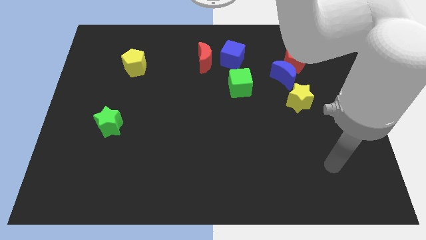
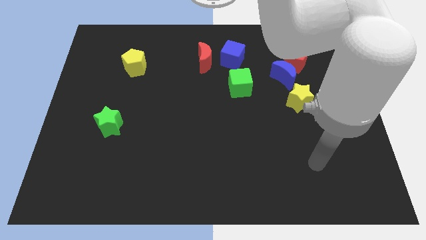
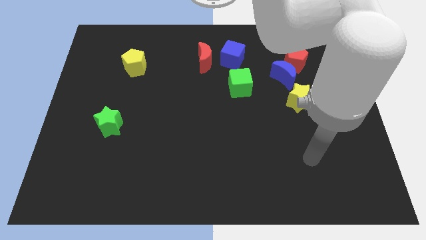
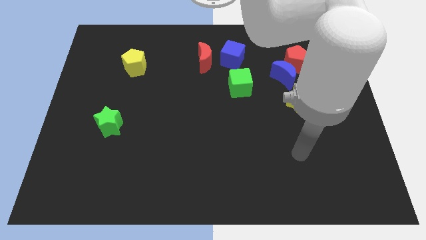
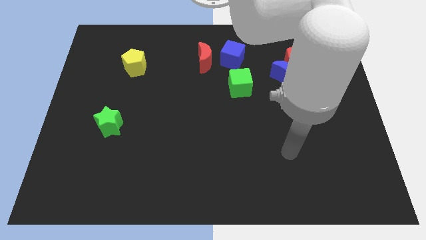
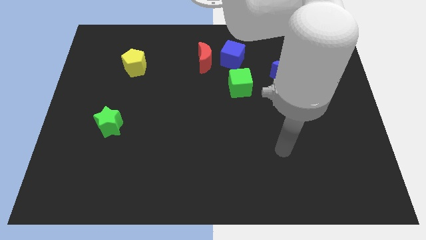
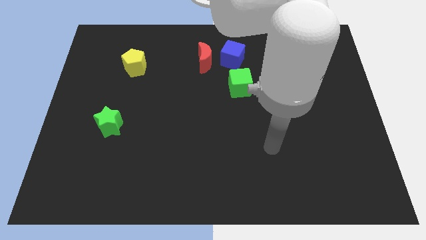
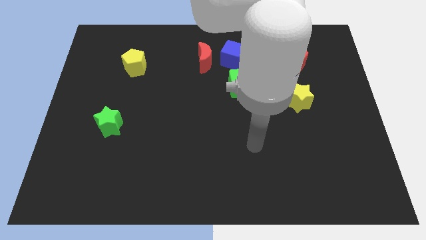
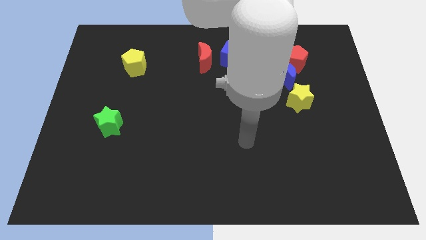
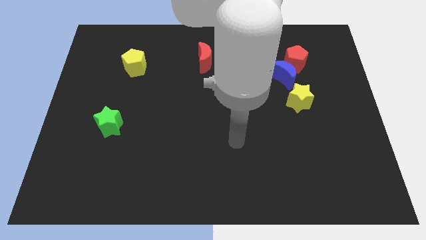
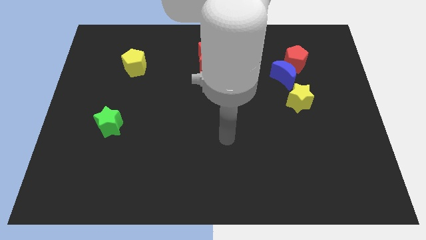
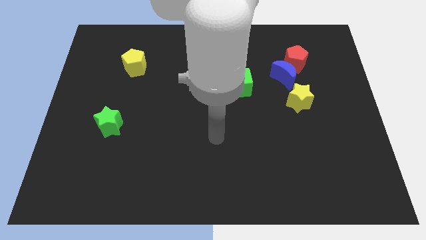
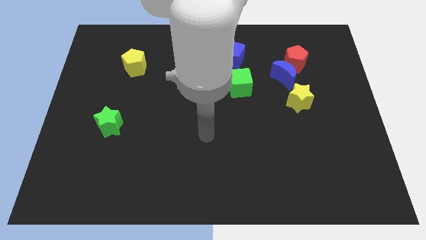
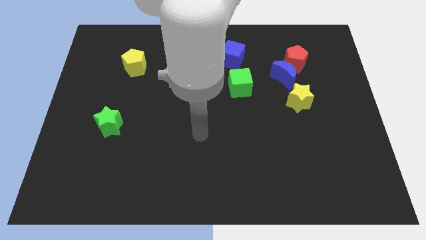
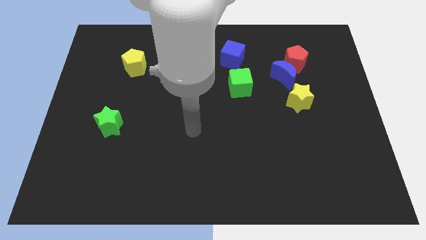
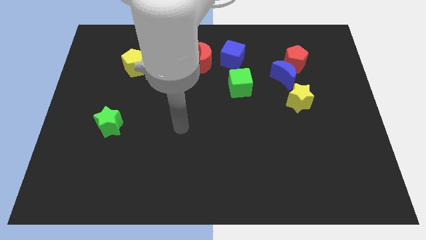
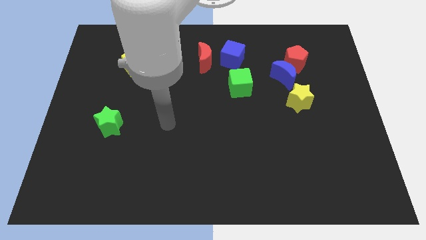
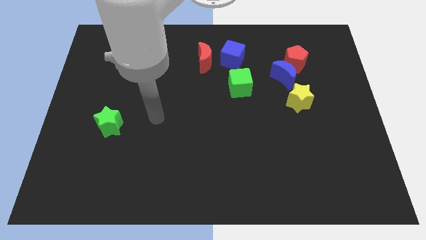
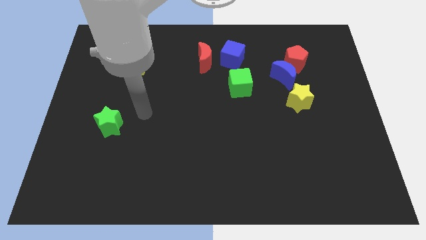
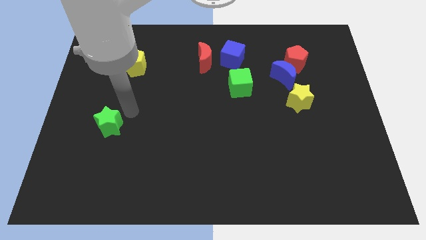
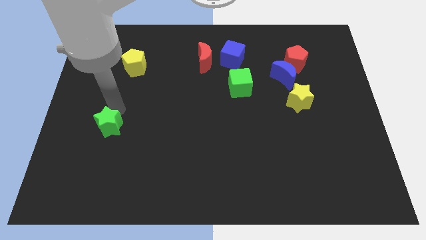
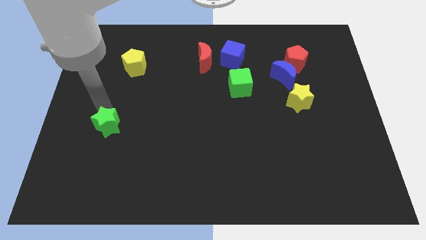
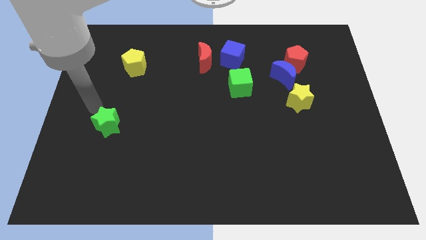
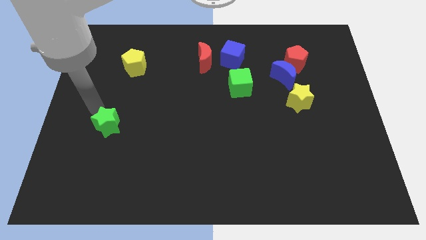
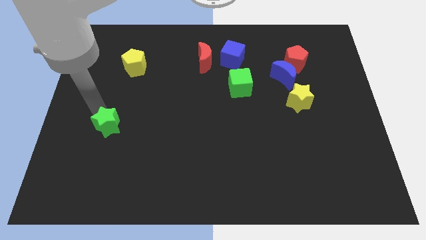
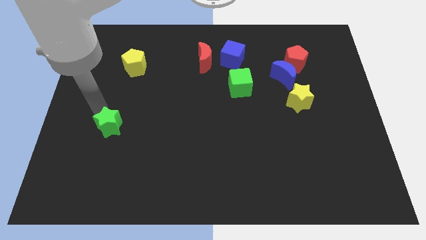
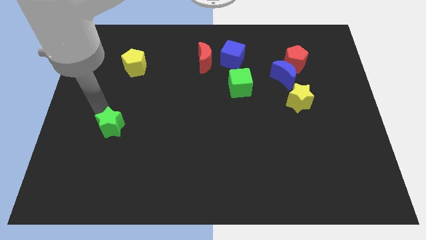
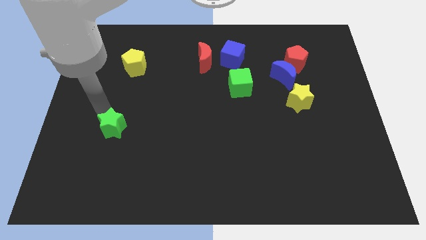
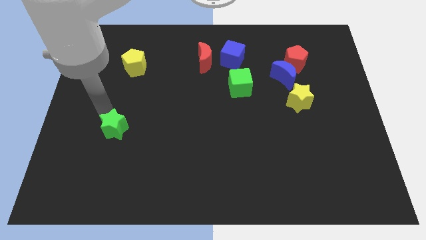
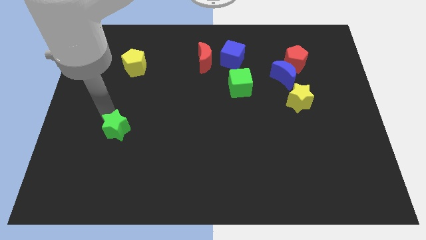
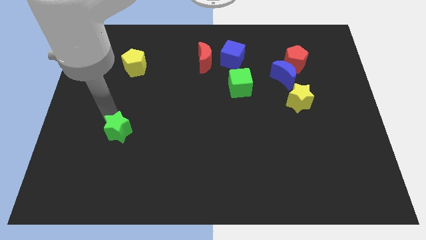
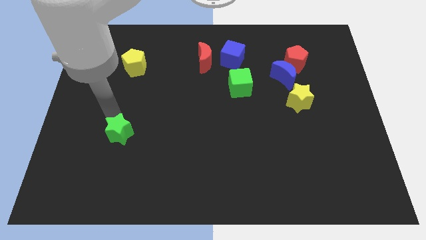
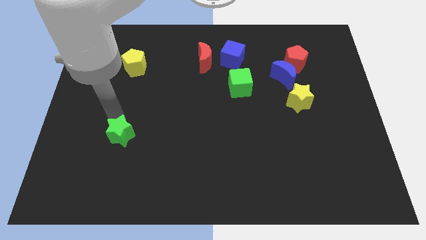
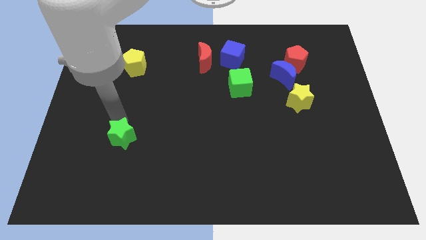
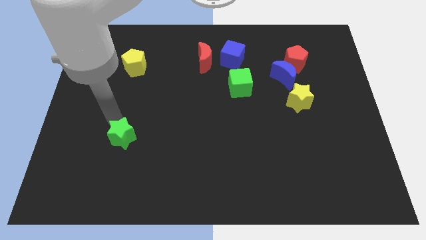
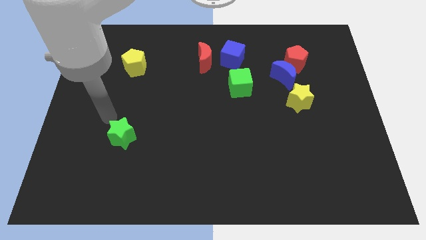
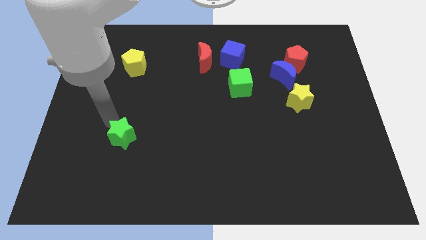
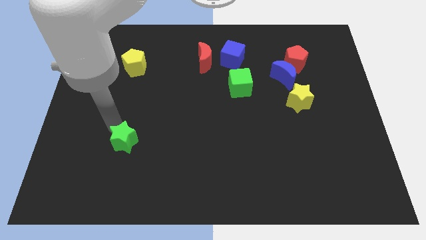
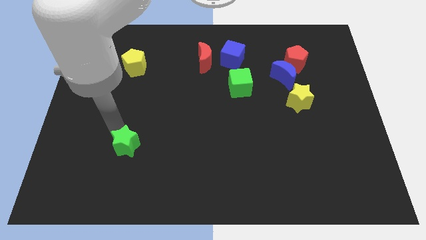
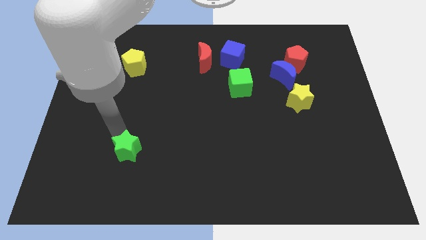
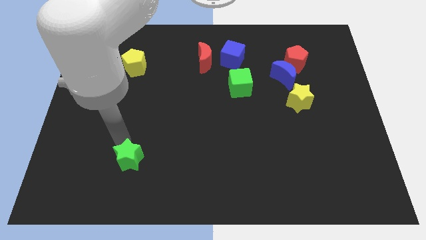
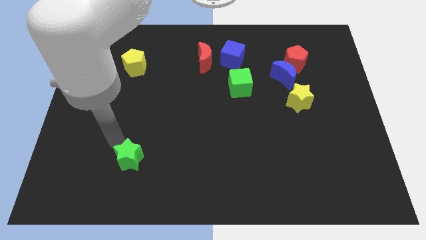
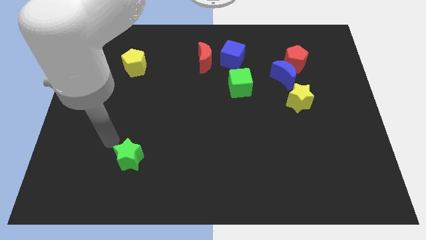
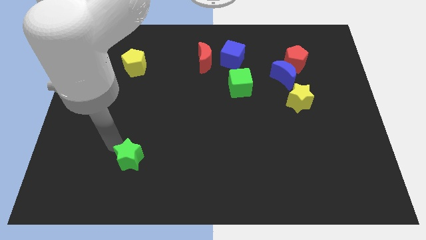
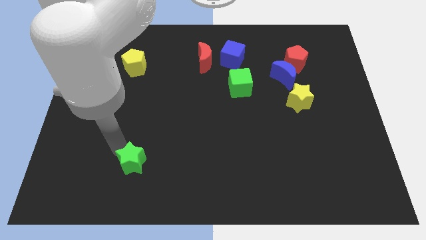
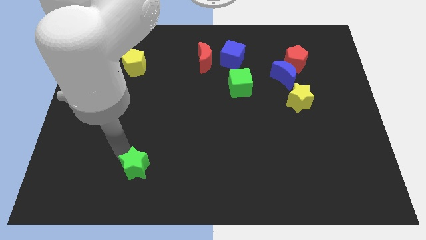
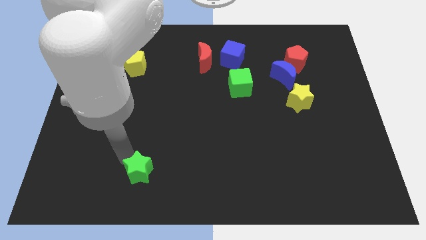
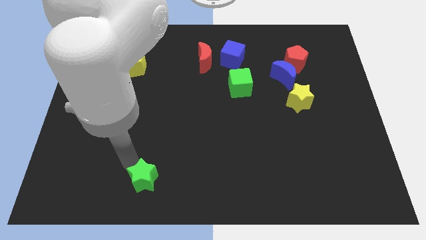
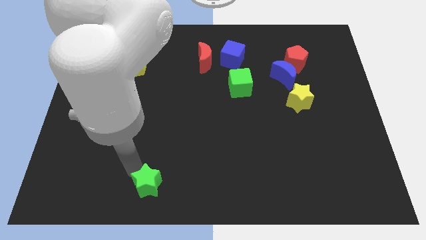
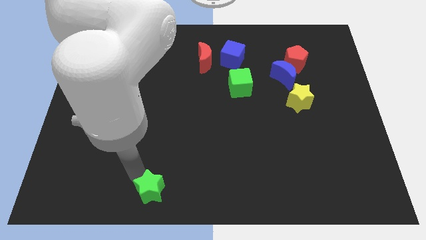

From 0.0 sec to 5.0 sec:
slide the green star to the bottom

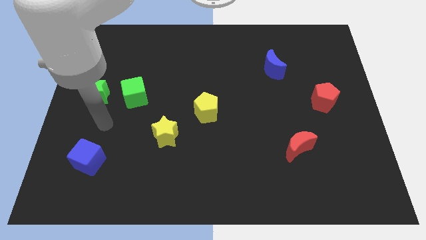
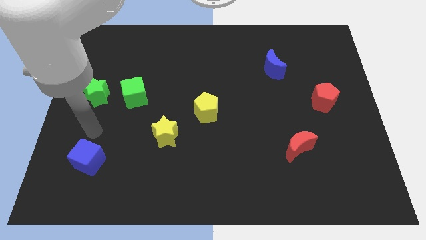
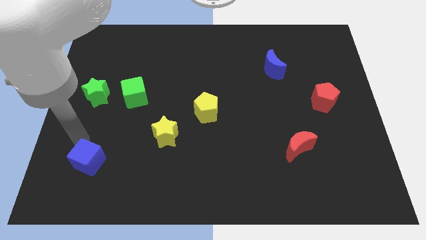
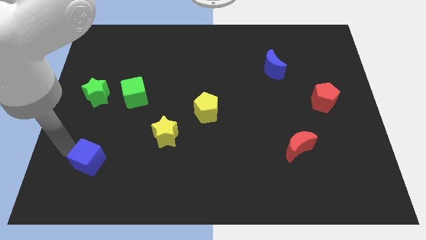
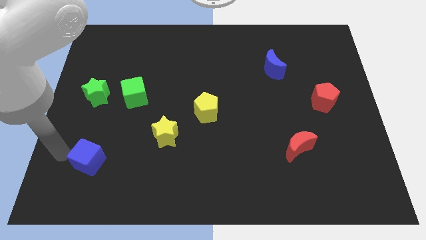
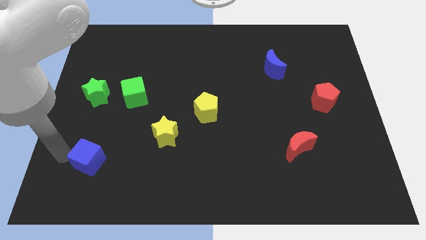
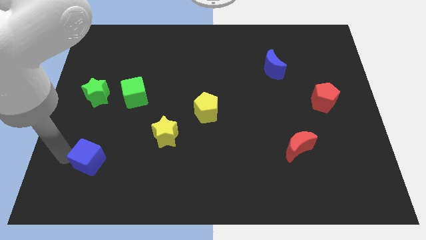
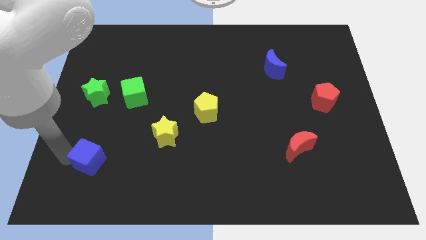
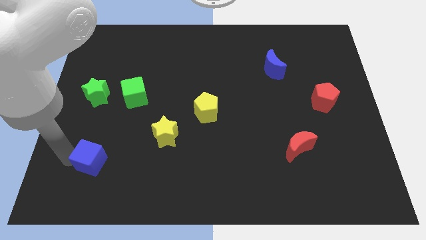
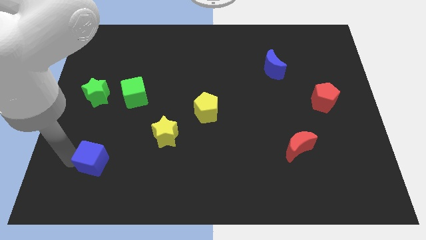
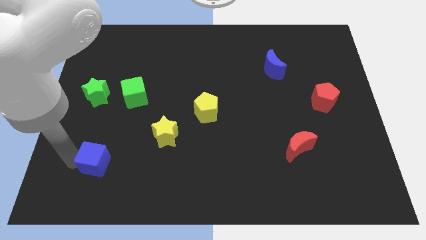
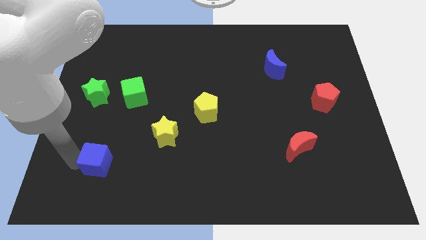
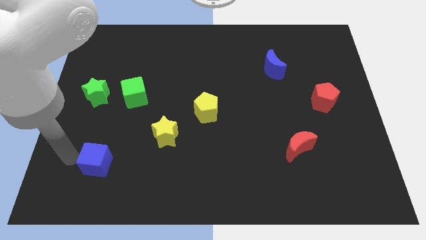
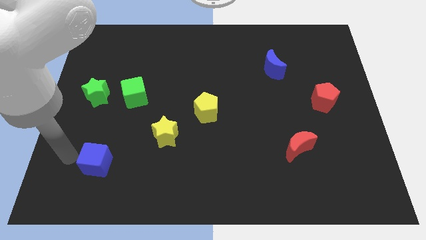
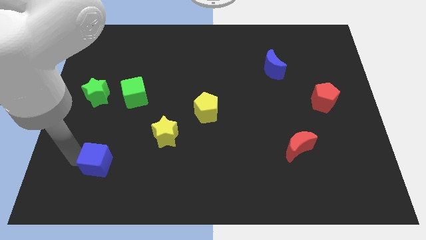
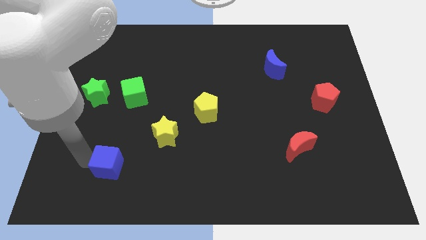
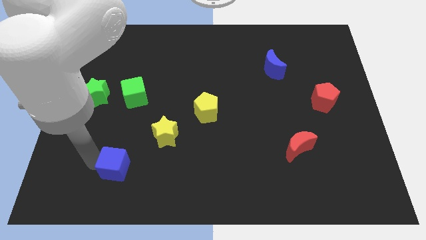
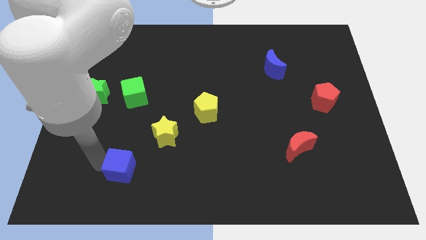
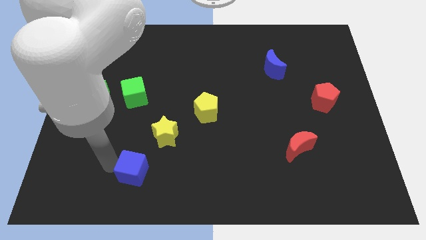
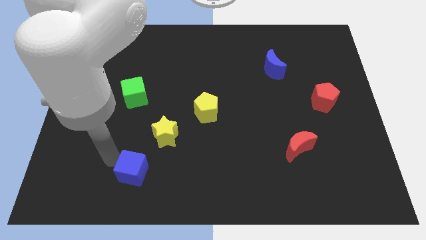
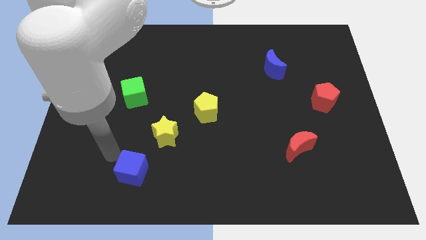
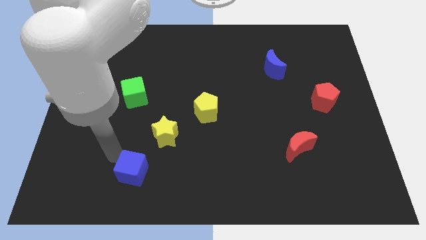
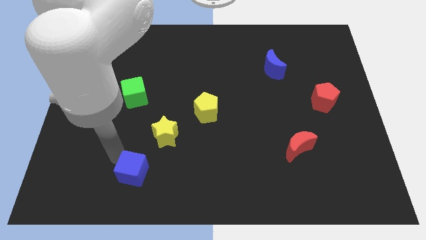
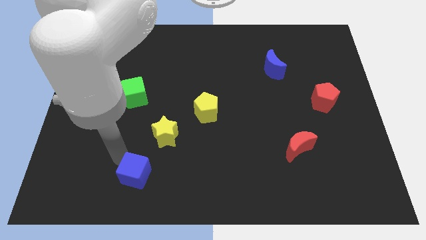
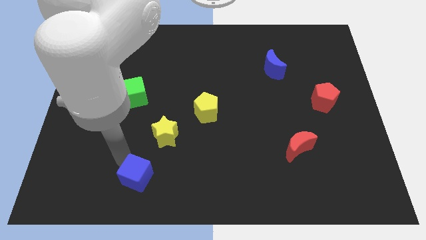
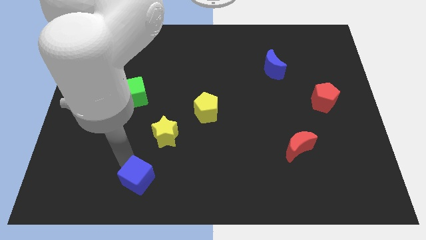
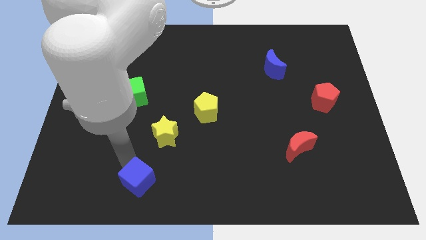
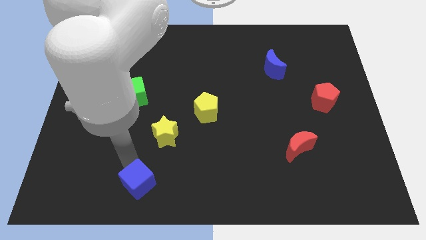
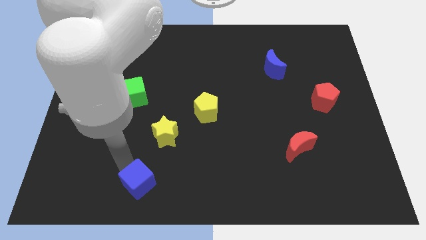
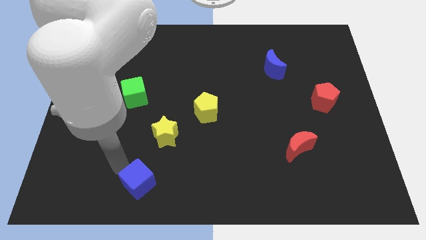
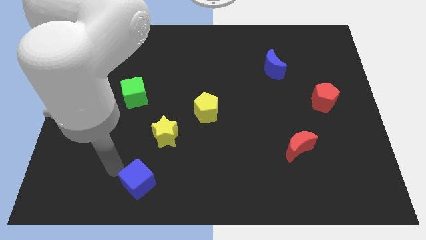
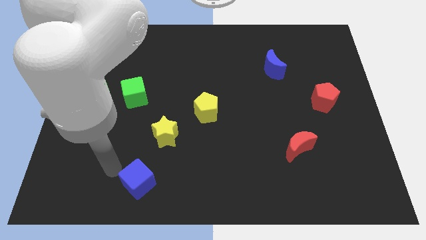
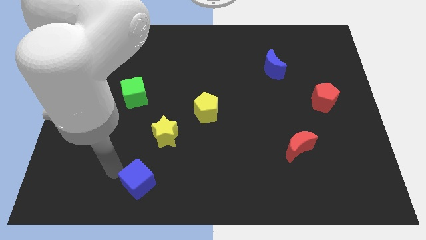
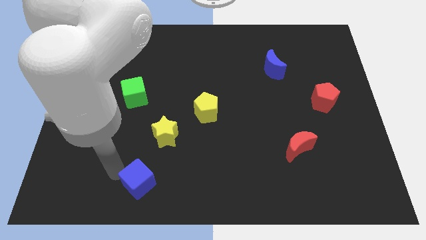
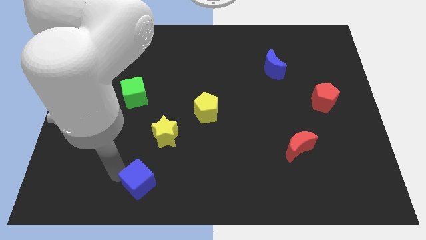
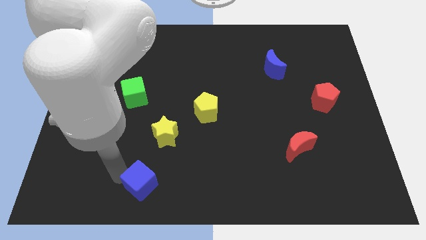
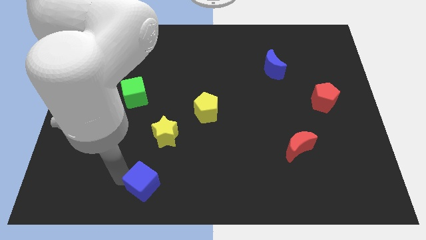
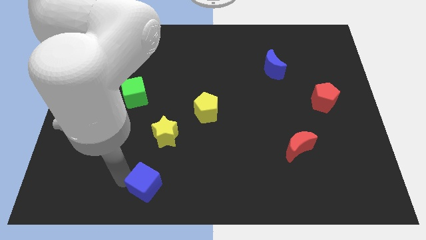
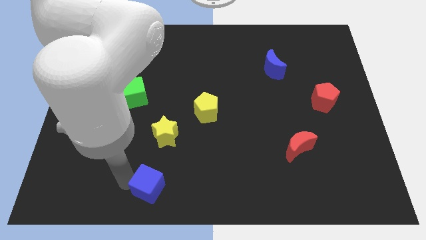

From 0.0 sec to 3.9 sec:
move the blue cube to the bottom
